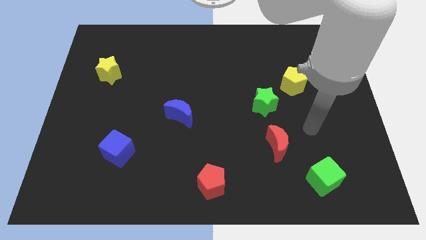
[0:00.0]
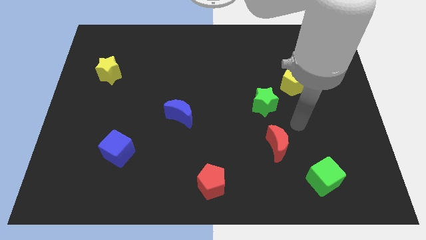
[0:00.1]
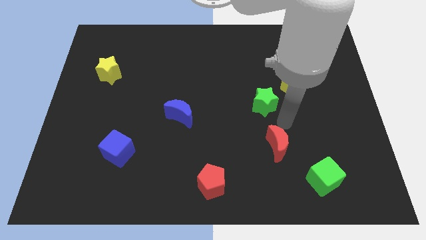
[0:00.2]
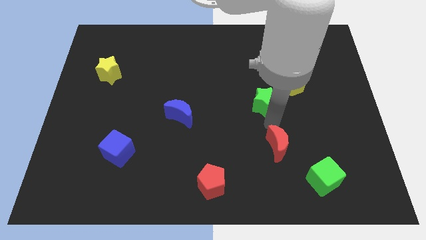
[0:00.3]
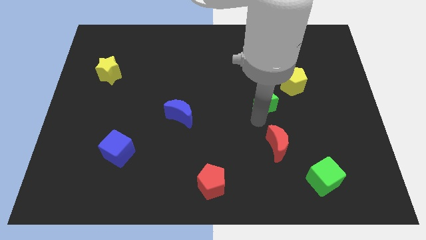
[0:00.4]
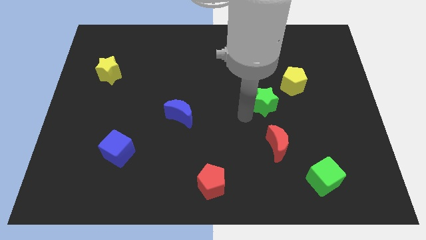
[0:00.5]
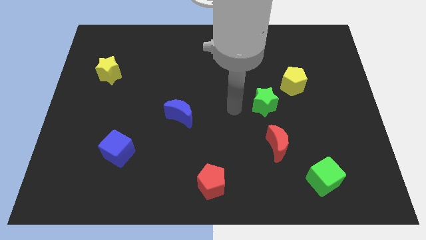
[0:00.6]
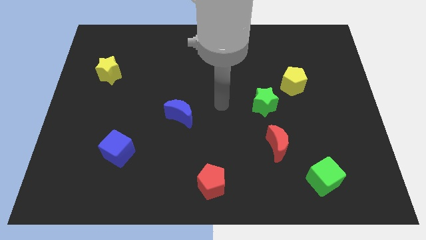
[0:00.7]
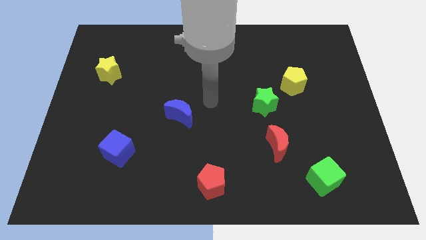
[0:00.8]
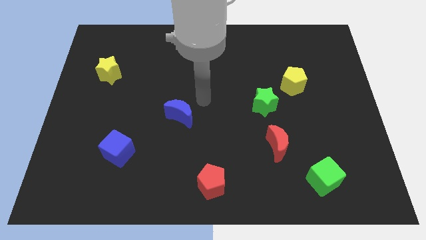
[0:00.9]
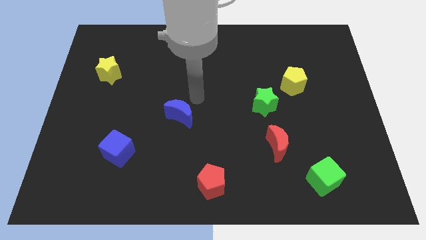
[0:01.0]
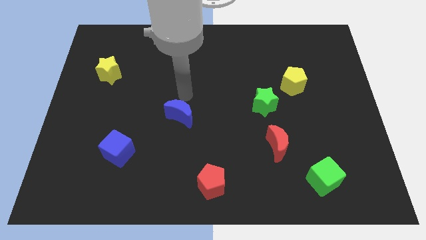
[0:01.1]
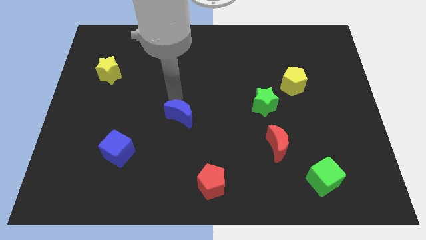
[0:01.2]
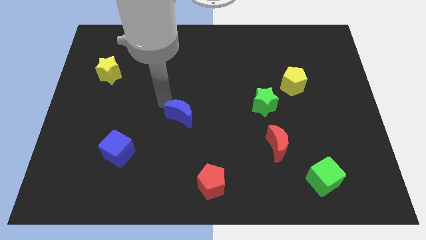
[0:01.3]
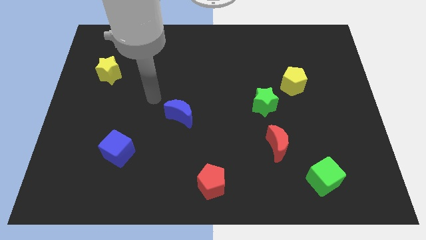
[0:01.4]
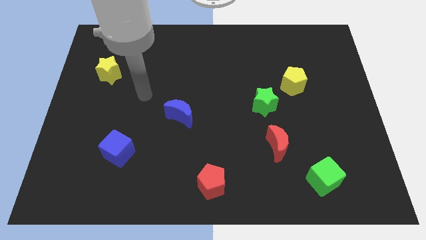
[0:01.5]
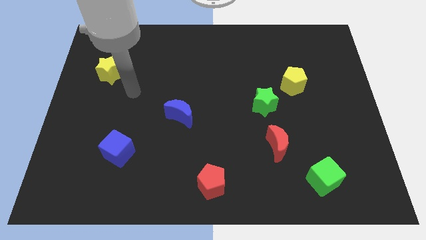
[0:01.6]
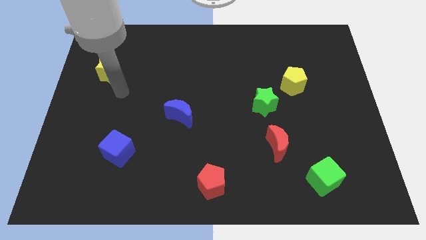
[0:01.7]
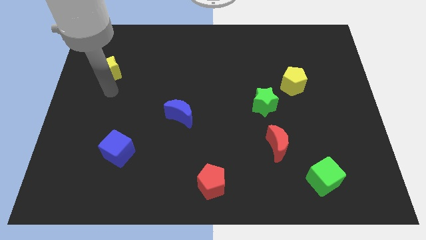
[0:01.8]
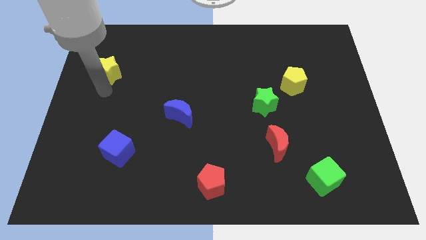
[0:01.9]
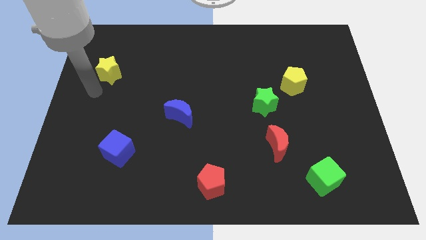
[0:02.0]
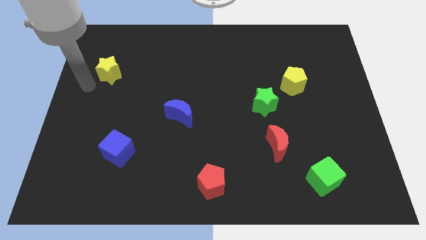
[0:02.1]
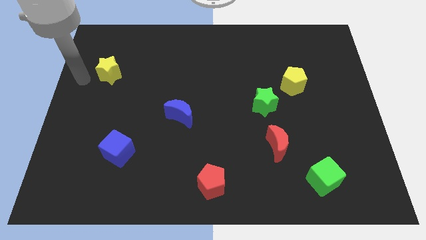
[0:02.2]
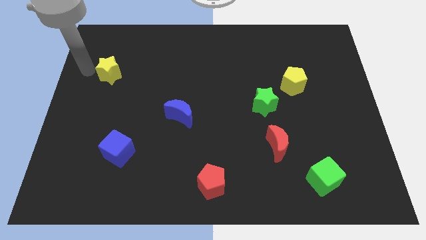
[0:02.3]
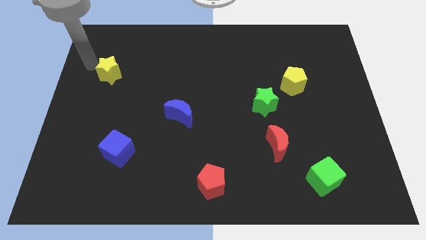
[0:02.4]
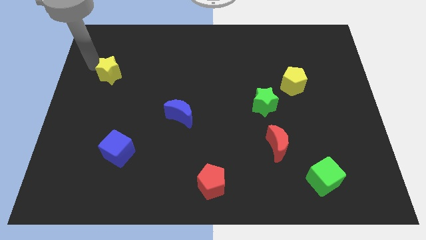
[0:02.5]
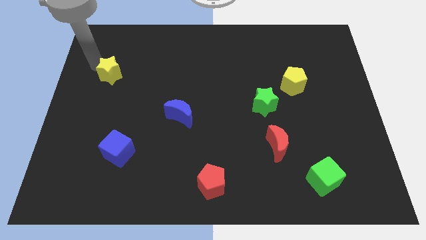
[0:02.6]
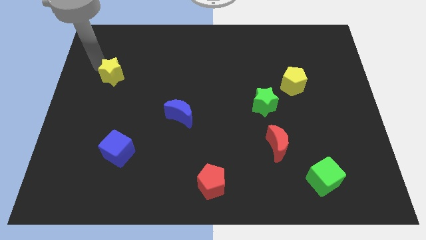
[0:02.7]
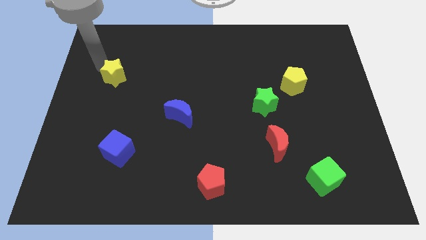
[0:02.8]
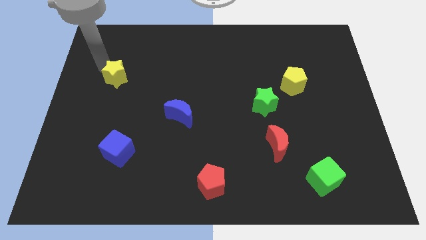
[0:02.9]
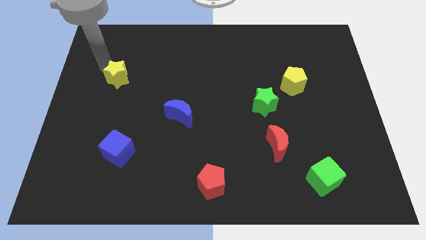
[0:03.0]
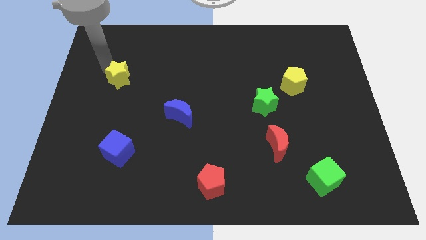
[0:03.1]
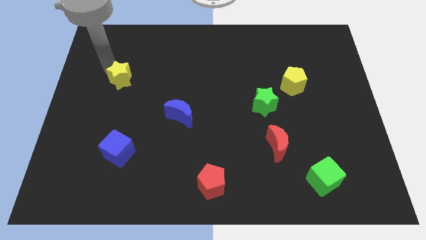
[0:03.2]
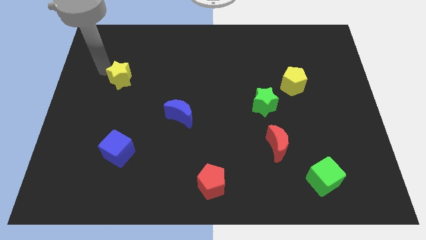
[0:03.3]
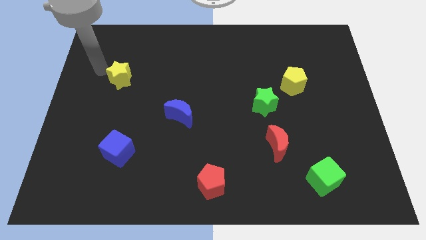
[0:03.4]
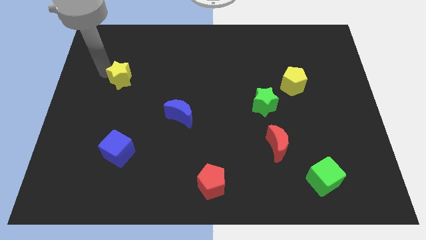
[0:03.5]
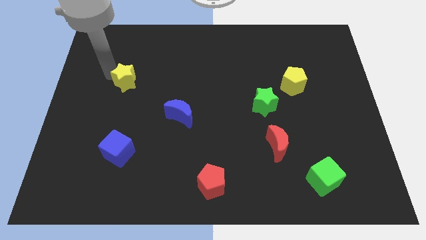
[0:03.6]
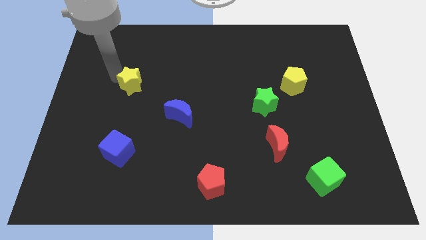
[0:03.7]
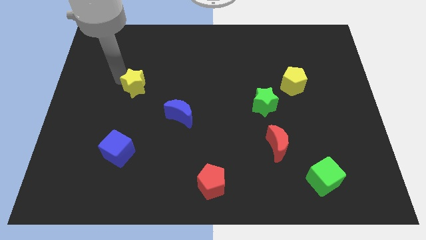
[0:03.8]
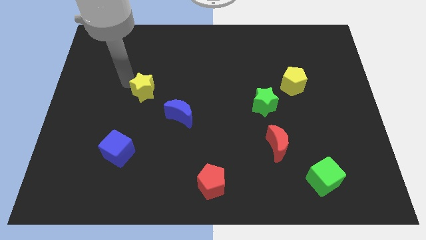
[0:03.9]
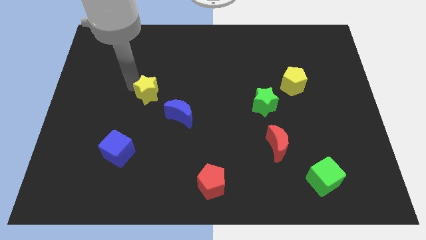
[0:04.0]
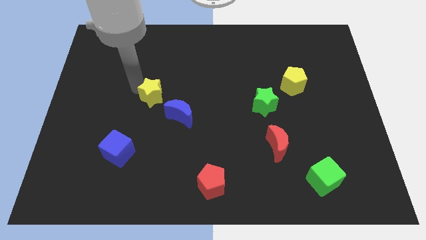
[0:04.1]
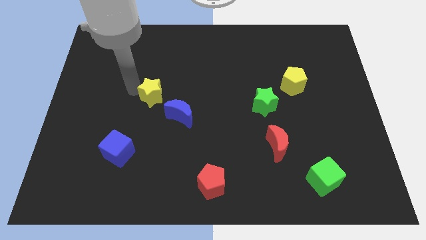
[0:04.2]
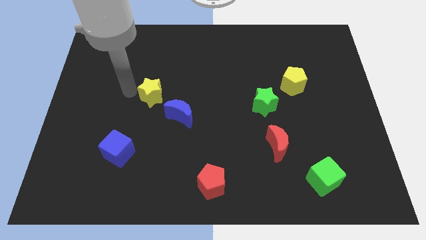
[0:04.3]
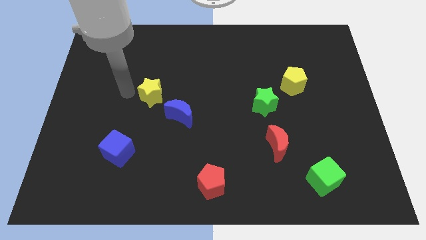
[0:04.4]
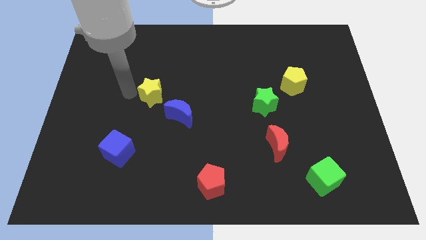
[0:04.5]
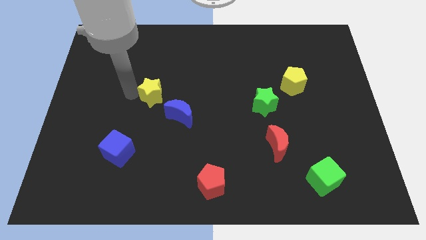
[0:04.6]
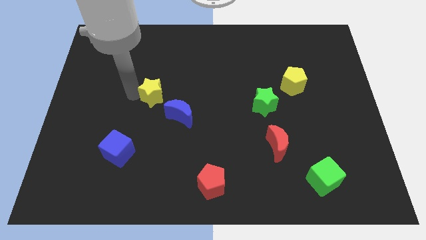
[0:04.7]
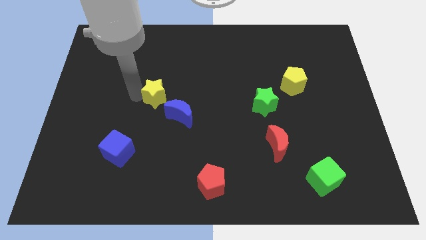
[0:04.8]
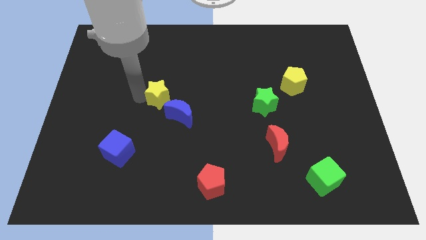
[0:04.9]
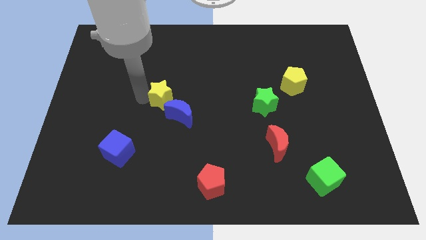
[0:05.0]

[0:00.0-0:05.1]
put the yellow star to the center of the board
